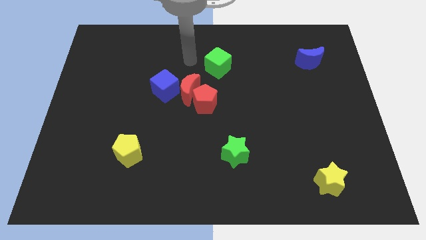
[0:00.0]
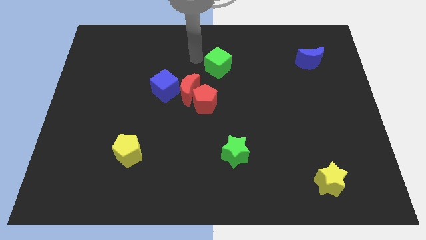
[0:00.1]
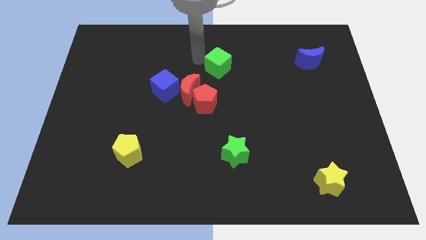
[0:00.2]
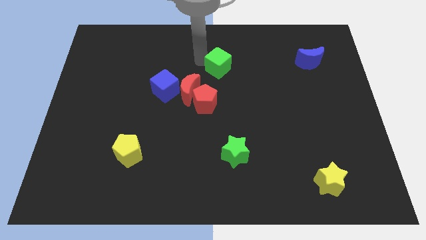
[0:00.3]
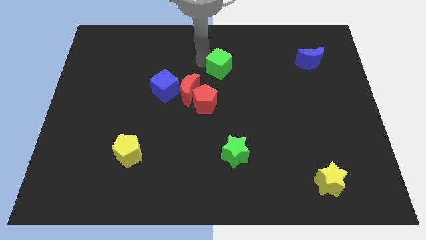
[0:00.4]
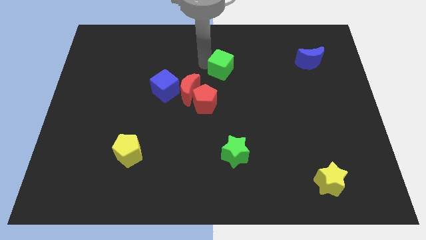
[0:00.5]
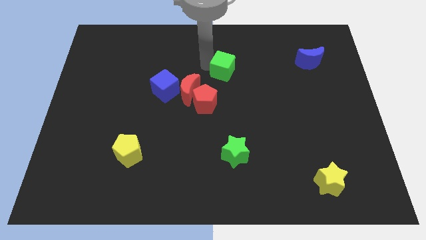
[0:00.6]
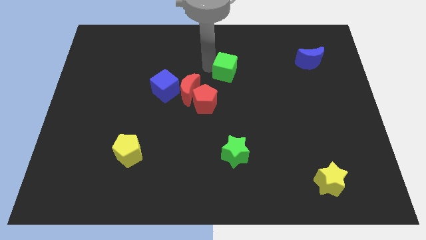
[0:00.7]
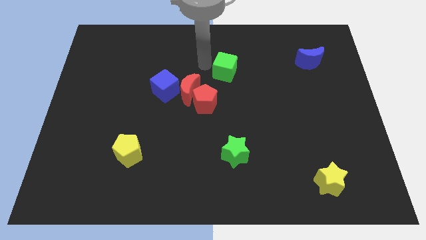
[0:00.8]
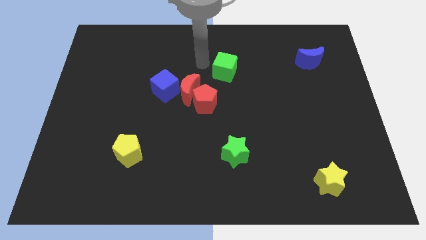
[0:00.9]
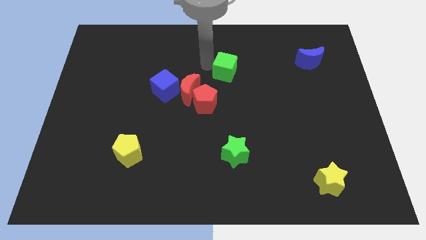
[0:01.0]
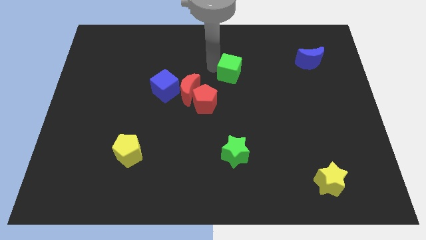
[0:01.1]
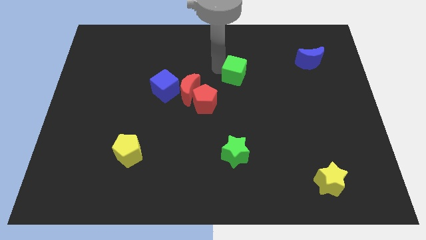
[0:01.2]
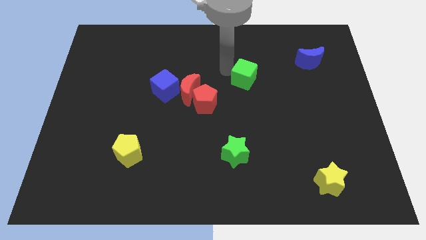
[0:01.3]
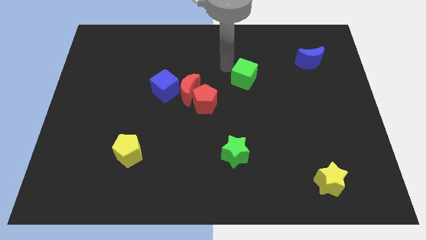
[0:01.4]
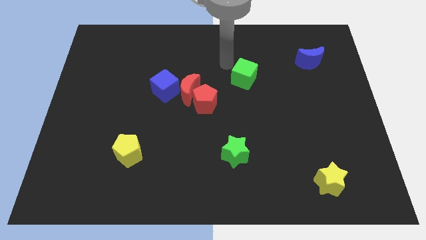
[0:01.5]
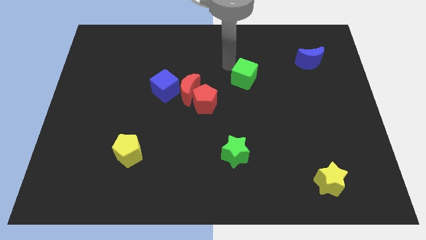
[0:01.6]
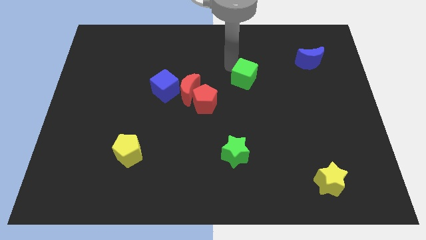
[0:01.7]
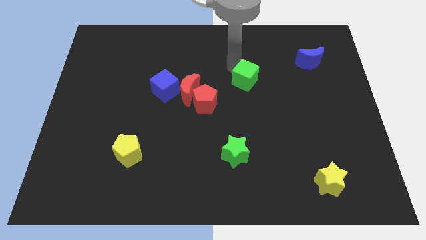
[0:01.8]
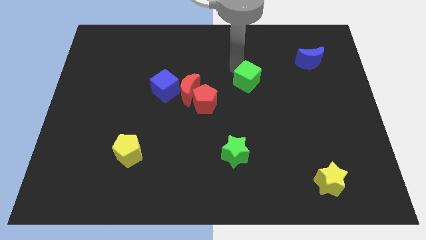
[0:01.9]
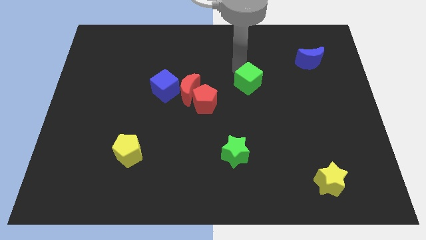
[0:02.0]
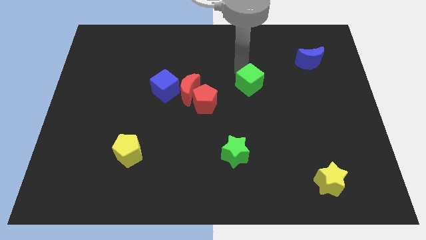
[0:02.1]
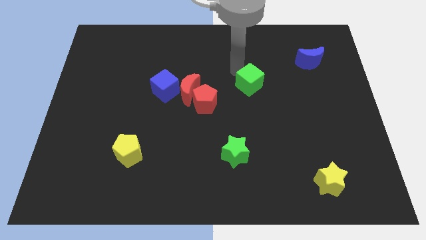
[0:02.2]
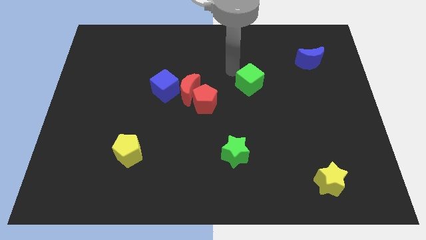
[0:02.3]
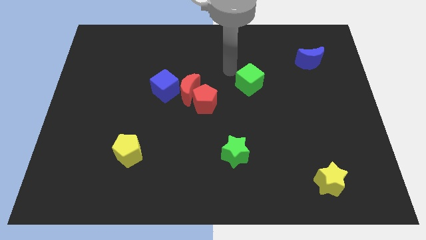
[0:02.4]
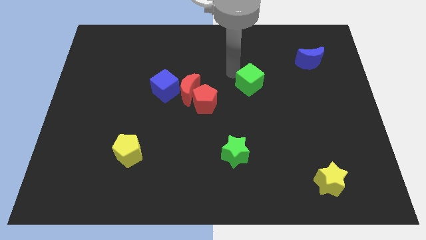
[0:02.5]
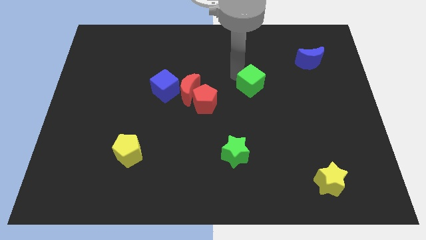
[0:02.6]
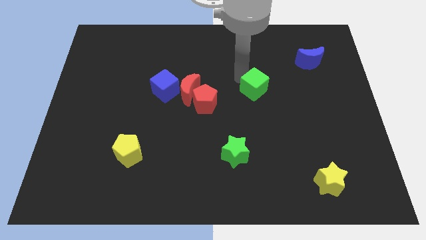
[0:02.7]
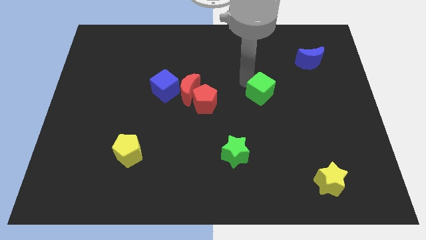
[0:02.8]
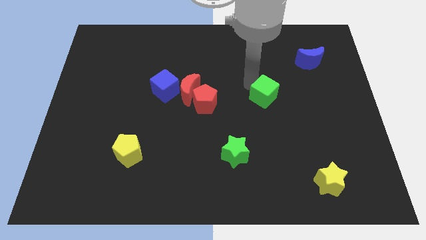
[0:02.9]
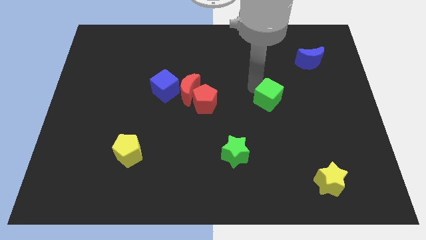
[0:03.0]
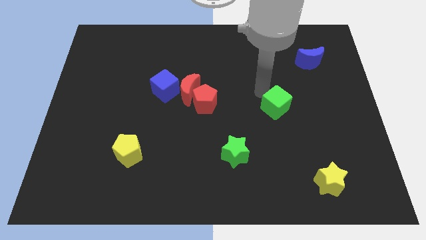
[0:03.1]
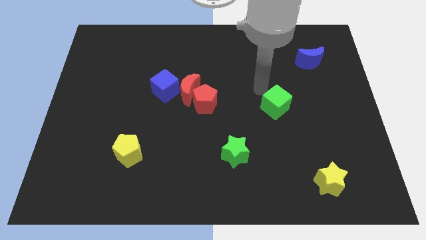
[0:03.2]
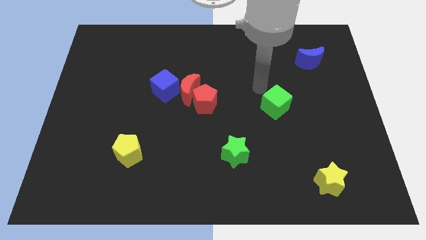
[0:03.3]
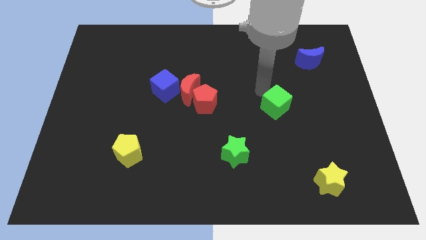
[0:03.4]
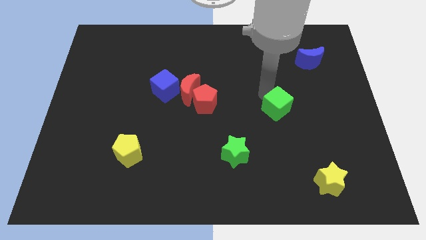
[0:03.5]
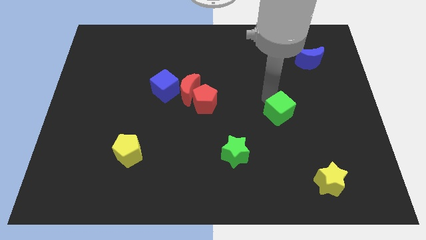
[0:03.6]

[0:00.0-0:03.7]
slide the green cube downwards and to the right

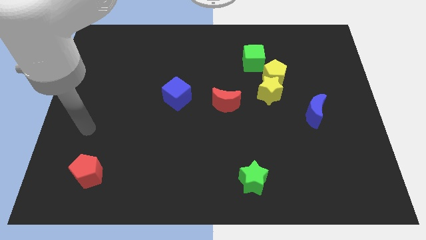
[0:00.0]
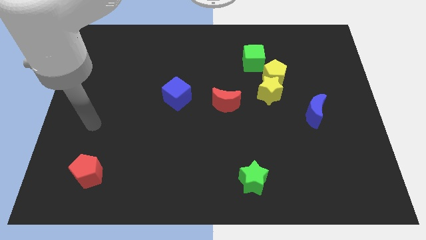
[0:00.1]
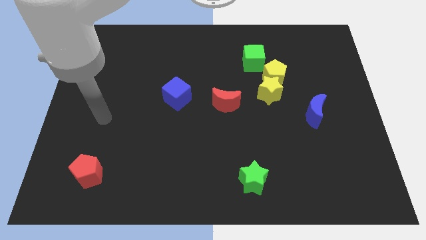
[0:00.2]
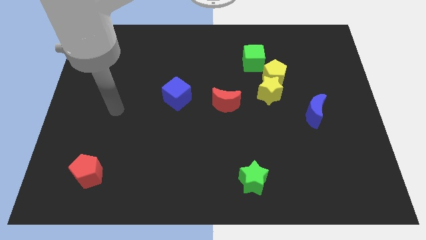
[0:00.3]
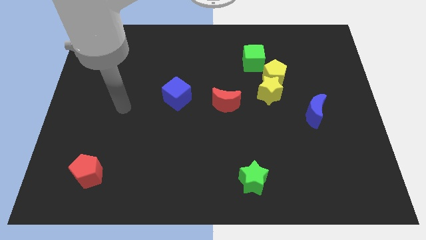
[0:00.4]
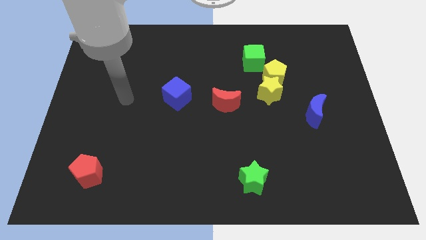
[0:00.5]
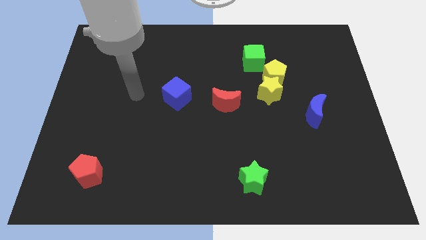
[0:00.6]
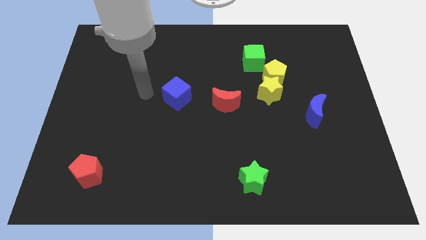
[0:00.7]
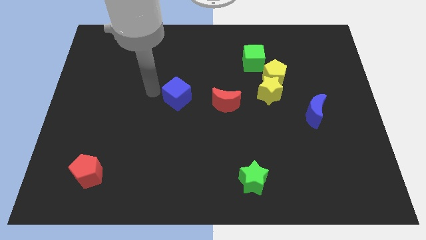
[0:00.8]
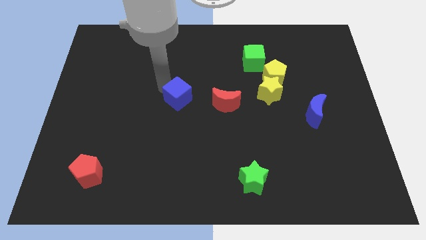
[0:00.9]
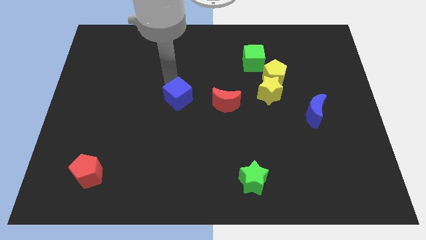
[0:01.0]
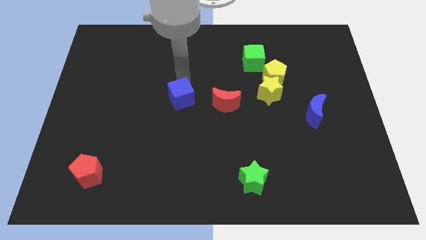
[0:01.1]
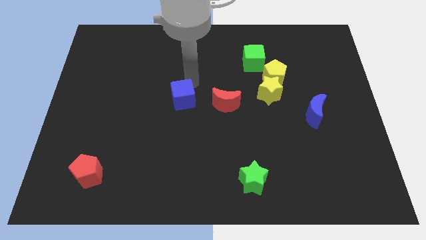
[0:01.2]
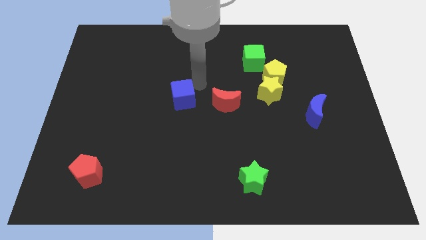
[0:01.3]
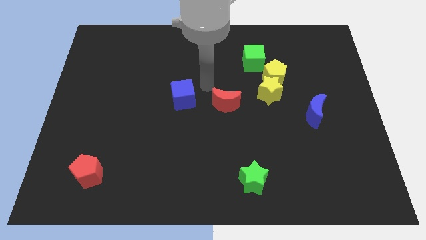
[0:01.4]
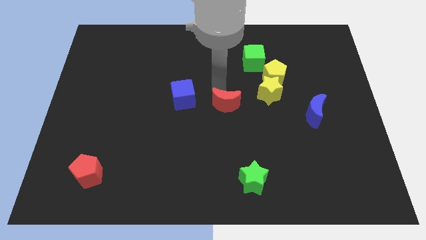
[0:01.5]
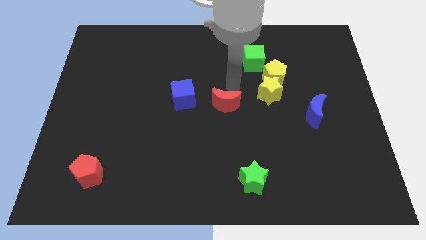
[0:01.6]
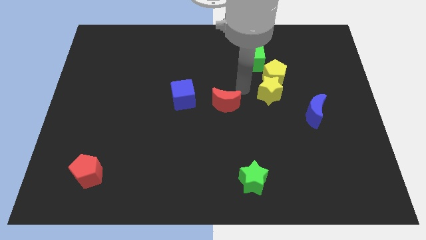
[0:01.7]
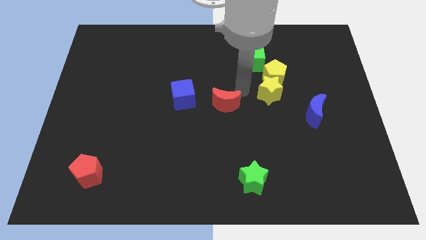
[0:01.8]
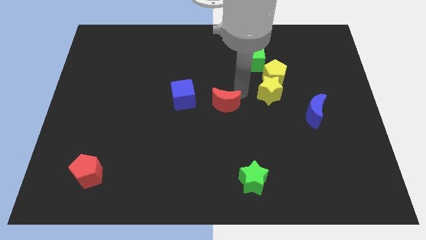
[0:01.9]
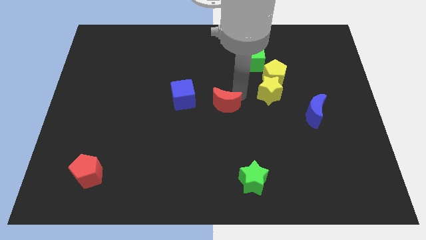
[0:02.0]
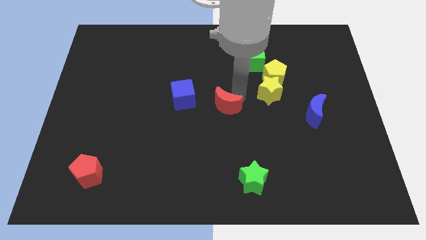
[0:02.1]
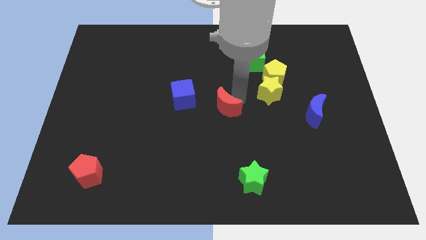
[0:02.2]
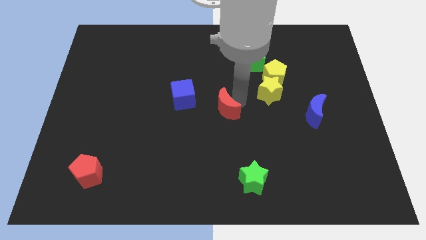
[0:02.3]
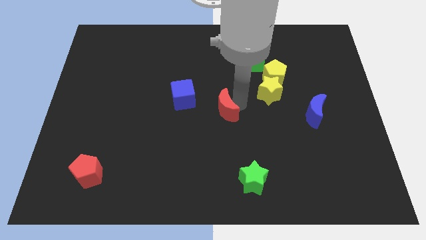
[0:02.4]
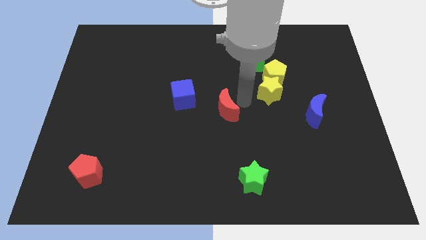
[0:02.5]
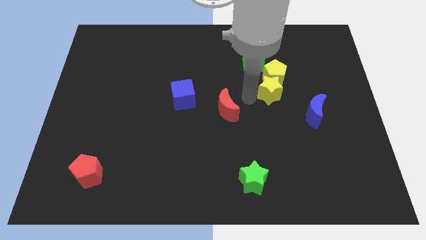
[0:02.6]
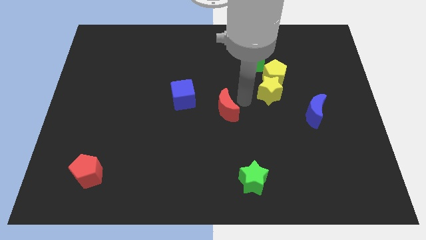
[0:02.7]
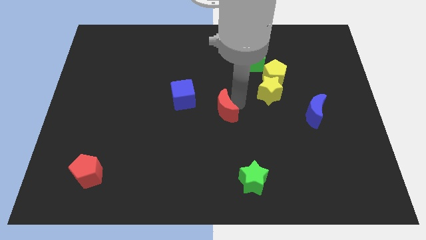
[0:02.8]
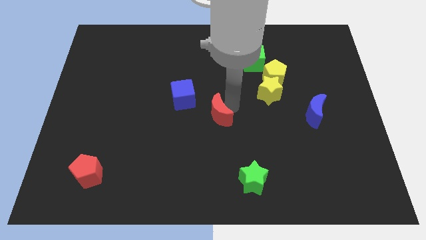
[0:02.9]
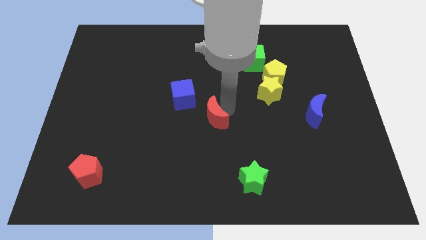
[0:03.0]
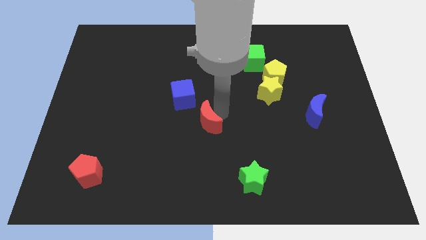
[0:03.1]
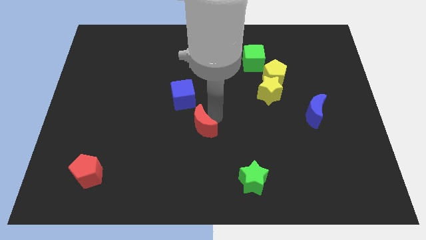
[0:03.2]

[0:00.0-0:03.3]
move the red moon a bit down and then to the left

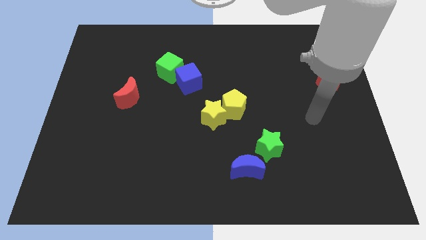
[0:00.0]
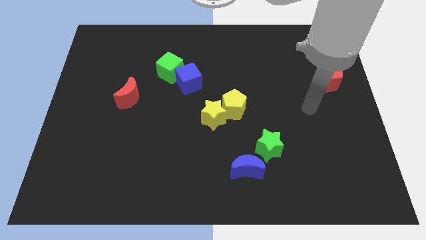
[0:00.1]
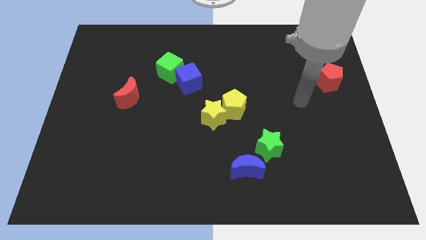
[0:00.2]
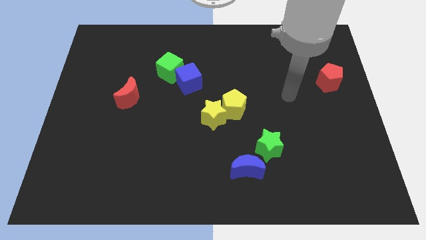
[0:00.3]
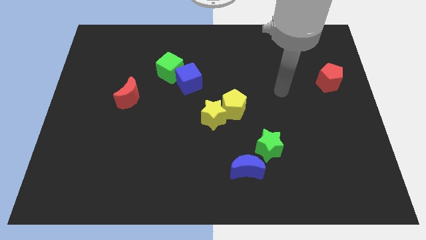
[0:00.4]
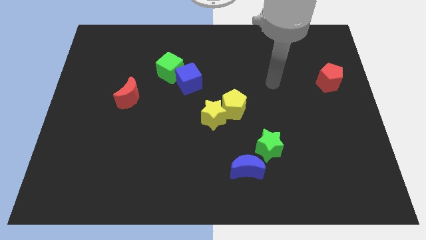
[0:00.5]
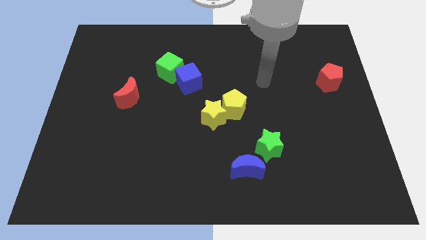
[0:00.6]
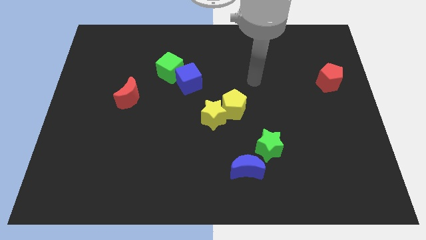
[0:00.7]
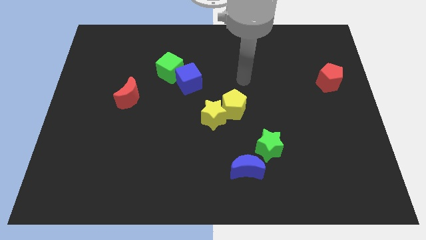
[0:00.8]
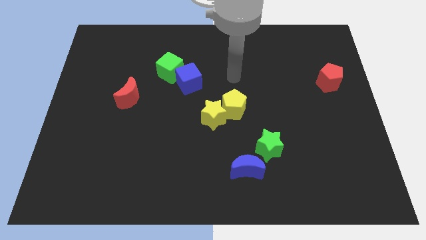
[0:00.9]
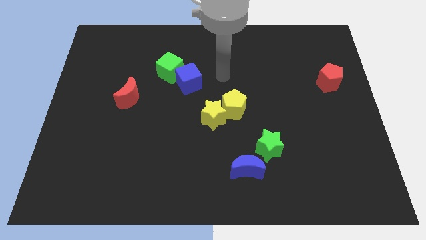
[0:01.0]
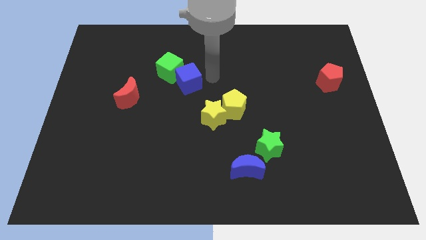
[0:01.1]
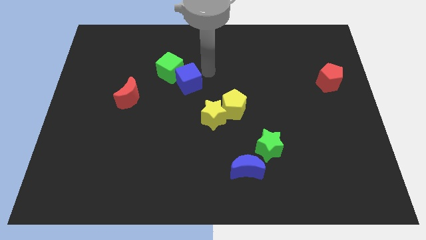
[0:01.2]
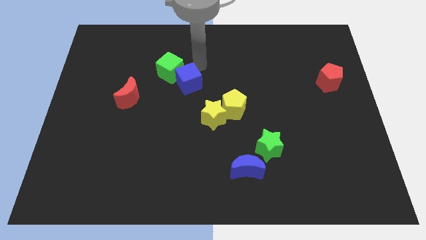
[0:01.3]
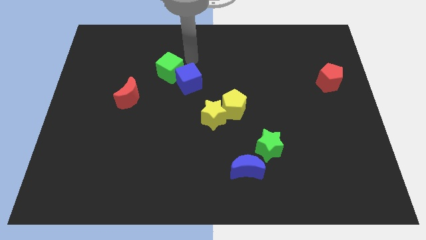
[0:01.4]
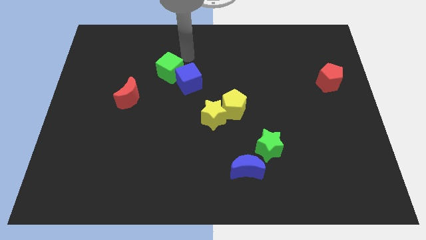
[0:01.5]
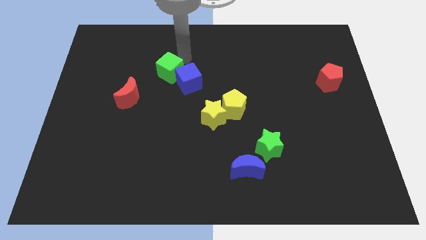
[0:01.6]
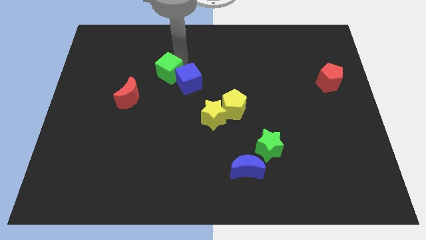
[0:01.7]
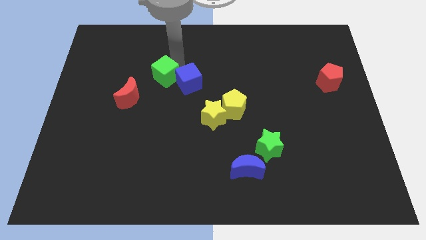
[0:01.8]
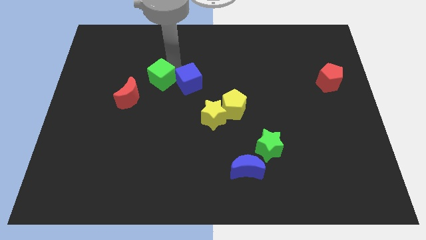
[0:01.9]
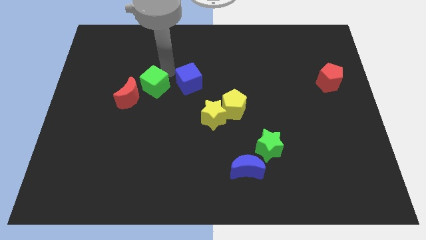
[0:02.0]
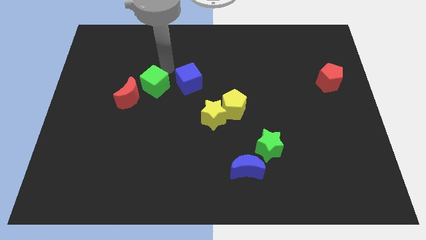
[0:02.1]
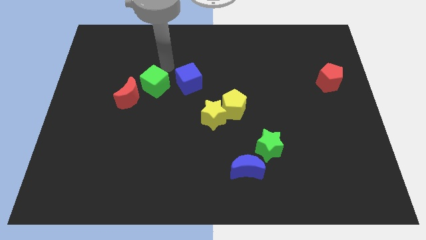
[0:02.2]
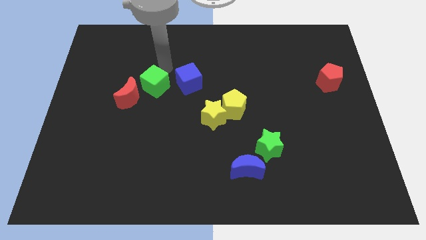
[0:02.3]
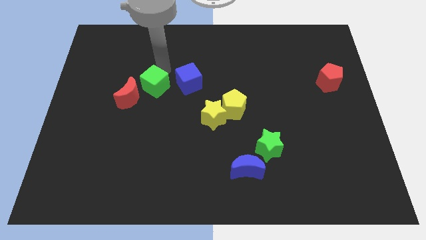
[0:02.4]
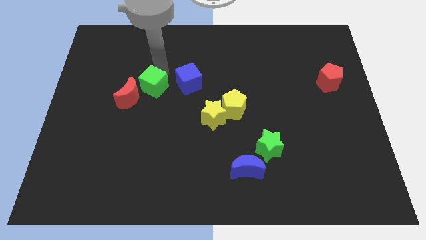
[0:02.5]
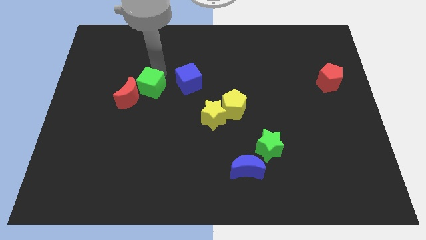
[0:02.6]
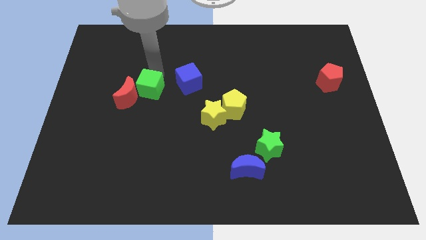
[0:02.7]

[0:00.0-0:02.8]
slightly push the green cube diagonally down and left
